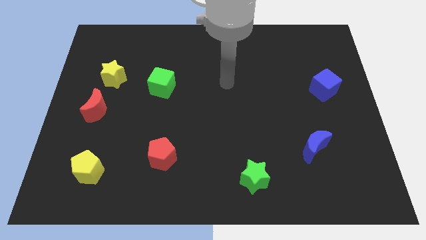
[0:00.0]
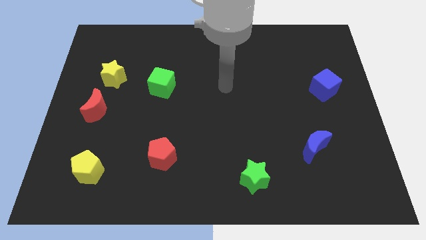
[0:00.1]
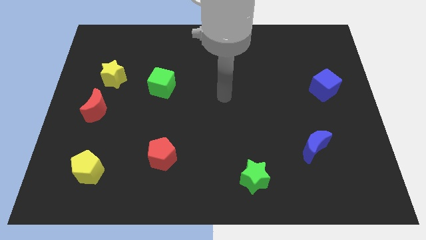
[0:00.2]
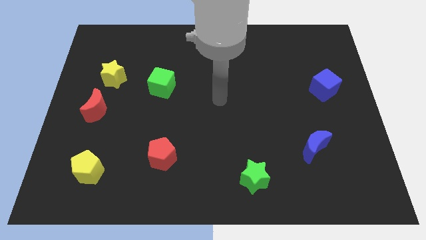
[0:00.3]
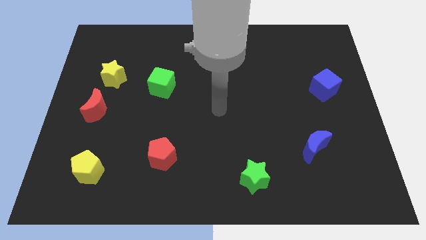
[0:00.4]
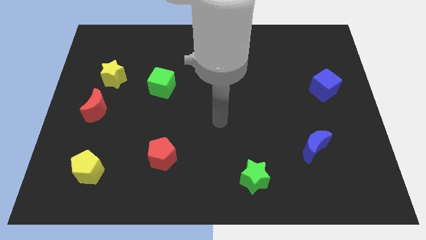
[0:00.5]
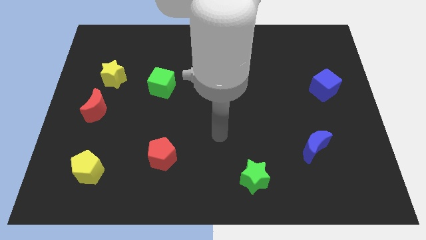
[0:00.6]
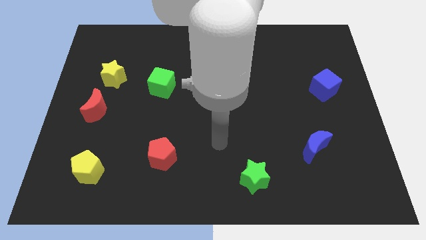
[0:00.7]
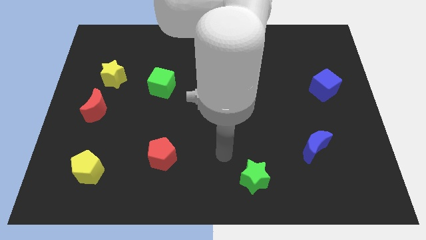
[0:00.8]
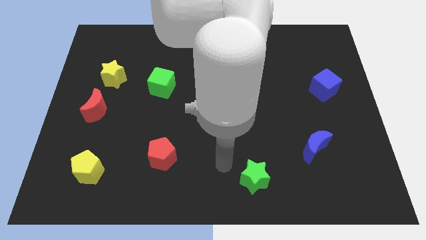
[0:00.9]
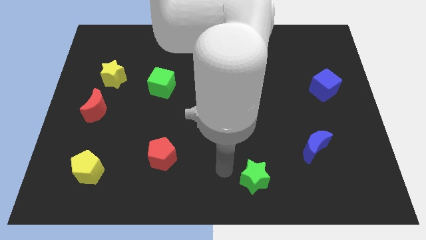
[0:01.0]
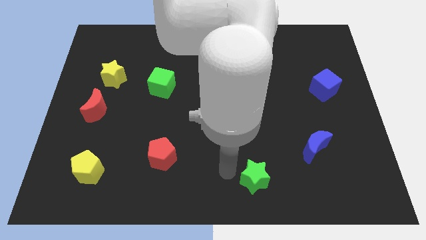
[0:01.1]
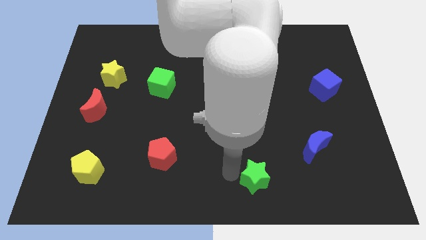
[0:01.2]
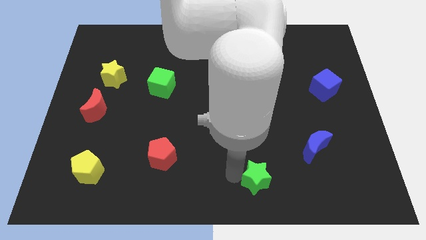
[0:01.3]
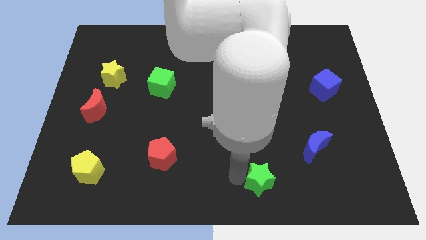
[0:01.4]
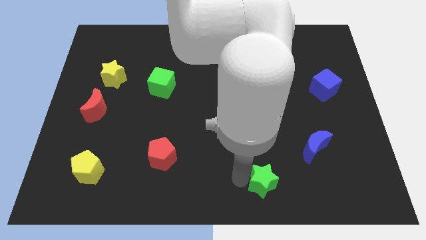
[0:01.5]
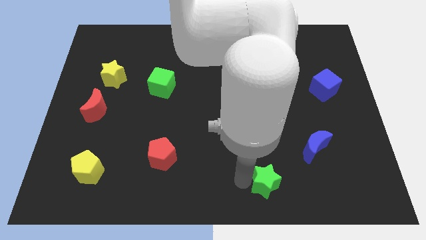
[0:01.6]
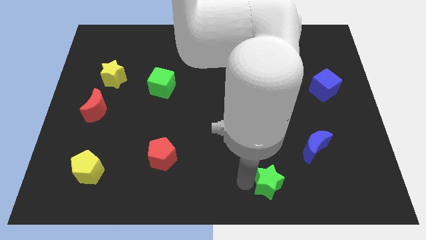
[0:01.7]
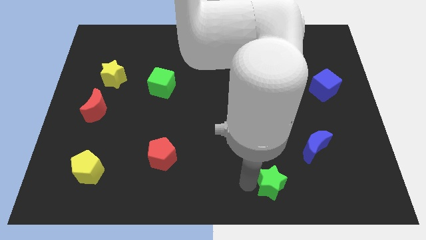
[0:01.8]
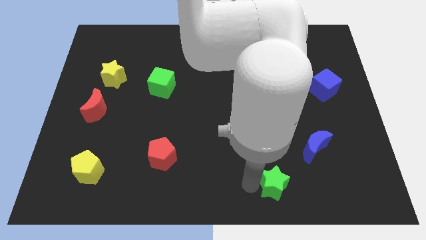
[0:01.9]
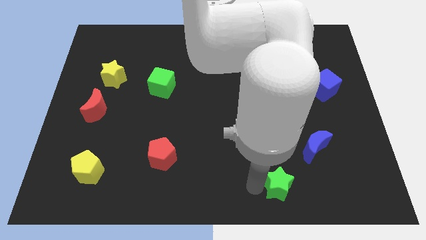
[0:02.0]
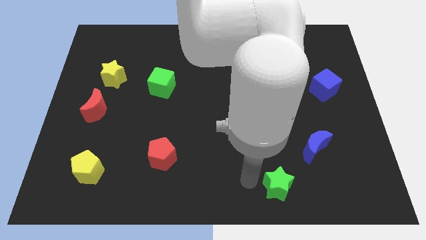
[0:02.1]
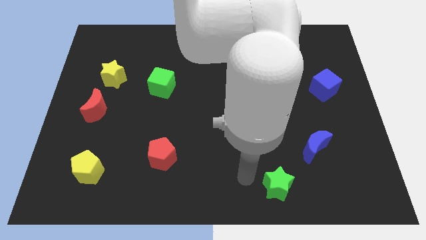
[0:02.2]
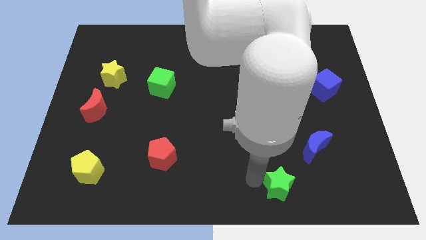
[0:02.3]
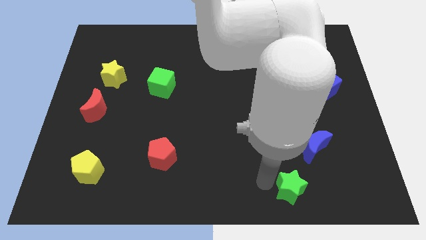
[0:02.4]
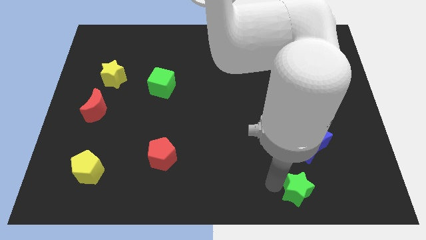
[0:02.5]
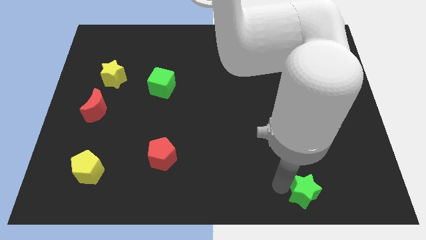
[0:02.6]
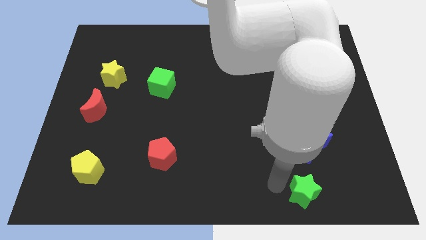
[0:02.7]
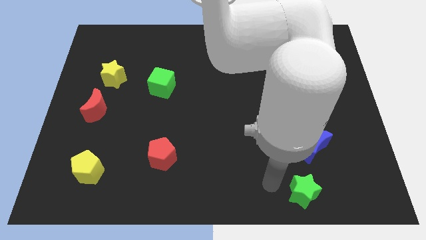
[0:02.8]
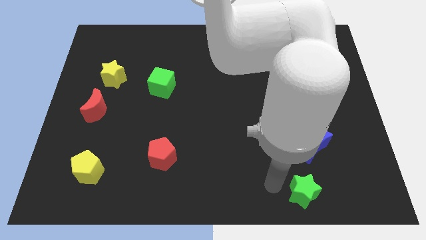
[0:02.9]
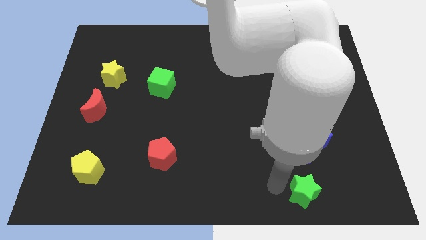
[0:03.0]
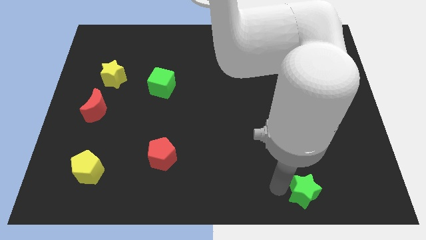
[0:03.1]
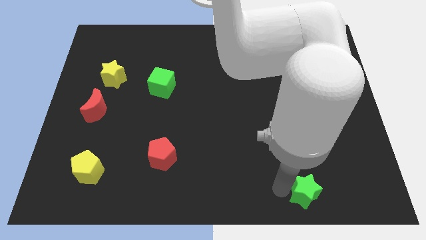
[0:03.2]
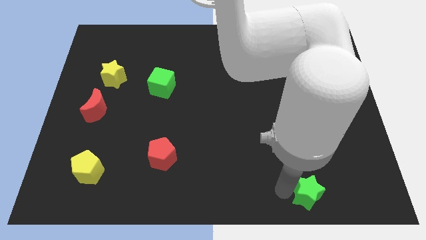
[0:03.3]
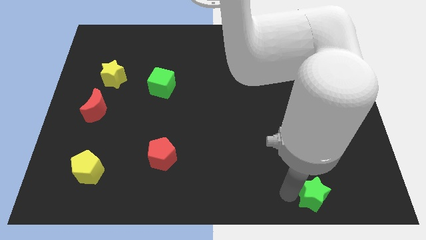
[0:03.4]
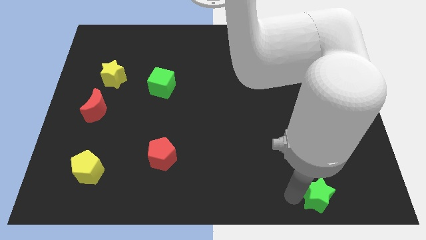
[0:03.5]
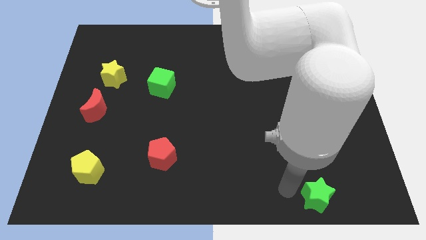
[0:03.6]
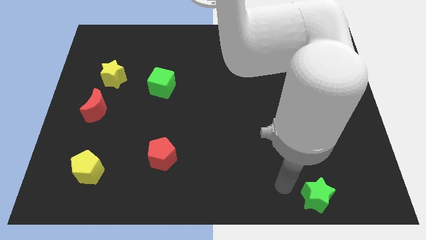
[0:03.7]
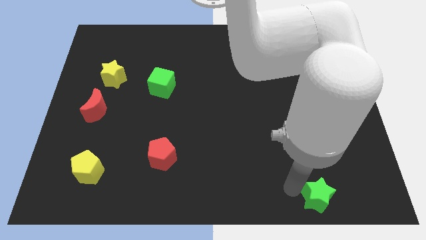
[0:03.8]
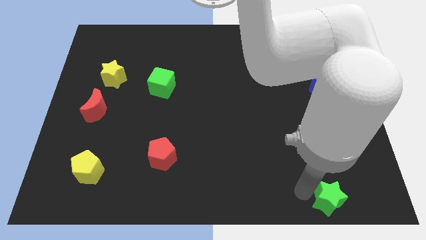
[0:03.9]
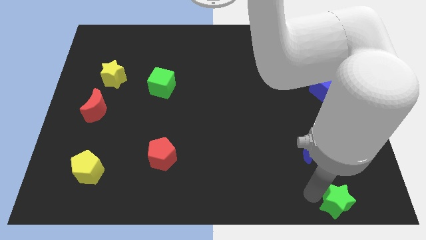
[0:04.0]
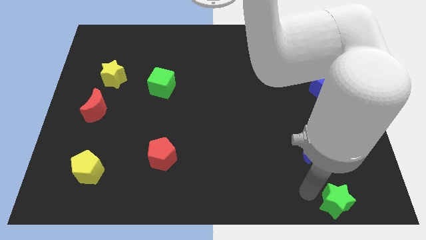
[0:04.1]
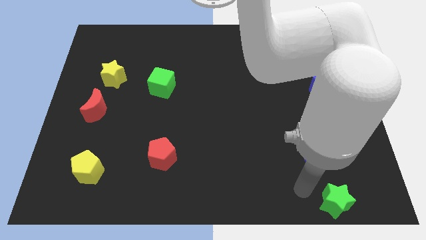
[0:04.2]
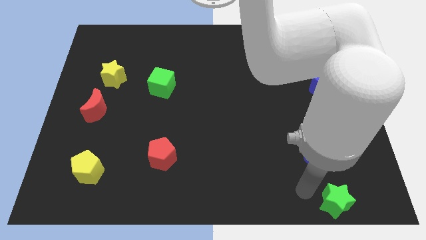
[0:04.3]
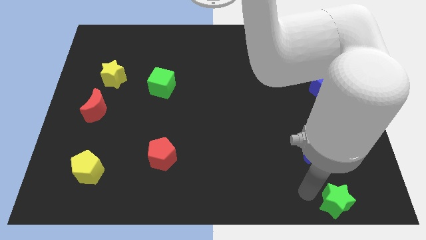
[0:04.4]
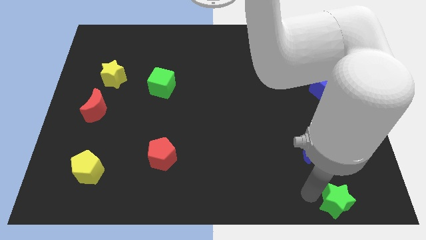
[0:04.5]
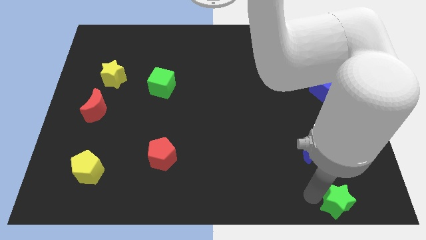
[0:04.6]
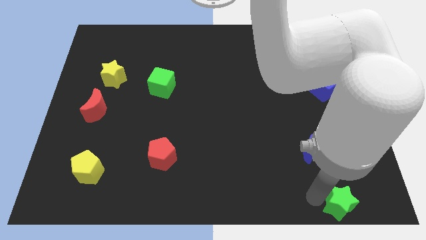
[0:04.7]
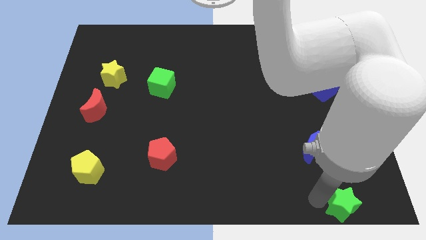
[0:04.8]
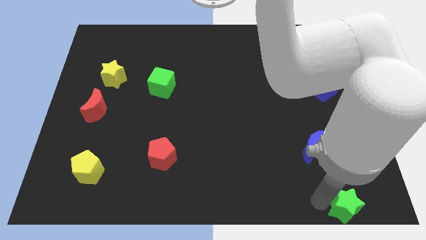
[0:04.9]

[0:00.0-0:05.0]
move the green star to the lower right corner

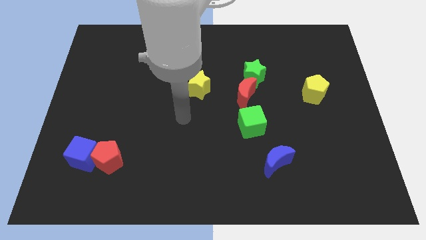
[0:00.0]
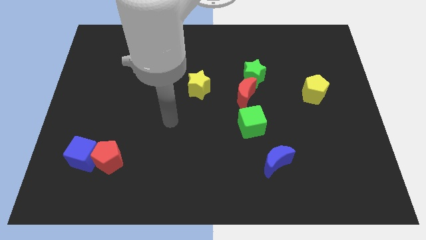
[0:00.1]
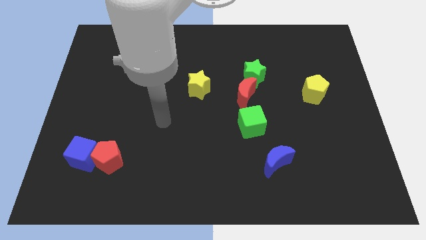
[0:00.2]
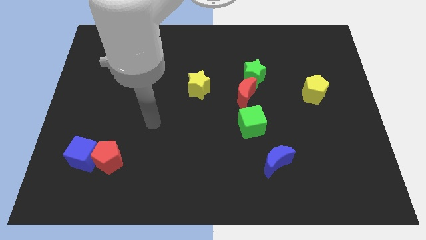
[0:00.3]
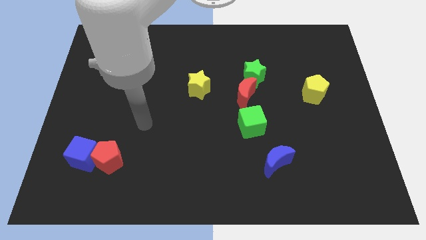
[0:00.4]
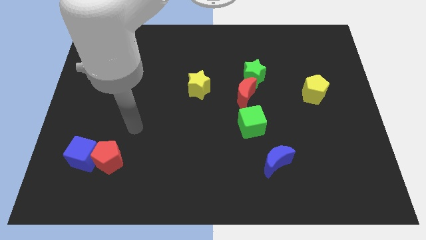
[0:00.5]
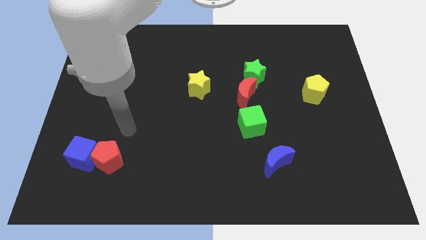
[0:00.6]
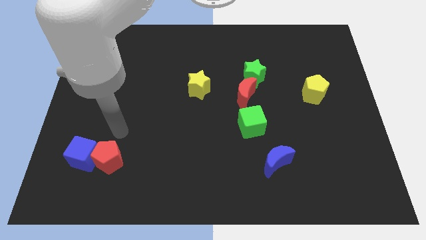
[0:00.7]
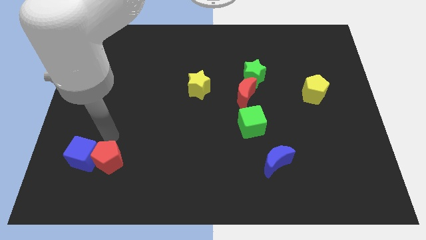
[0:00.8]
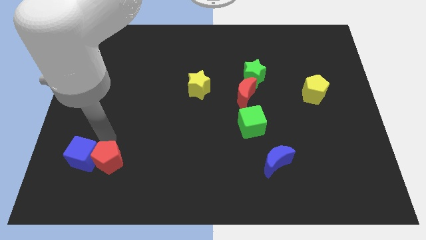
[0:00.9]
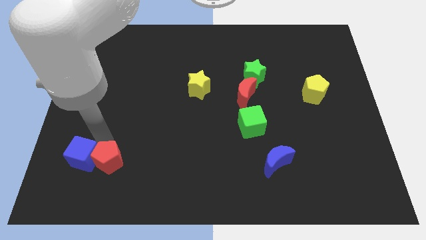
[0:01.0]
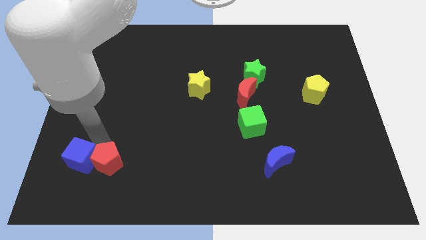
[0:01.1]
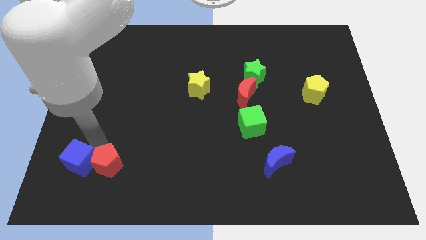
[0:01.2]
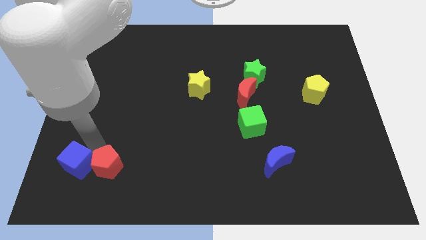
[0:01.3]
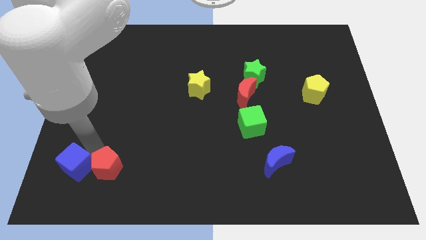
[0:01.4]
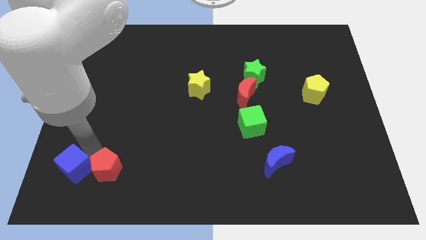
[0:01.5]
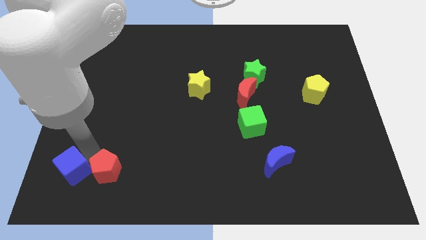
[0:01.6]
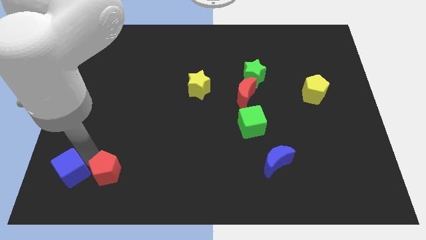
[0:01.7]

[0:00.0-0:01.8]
slide the blue cube to the bottom left
